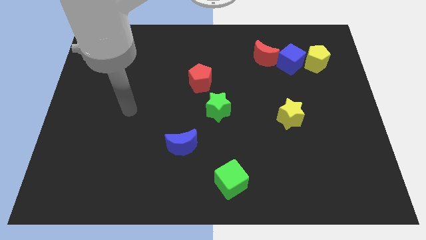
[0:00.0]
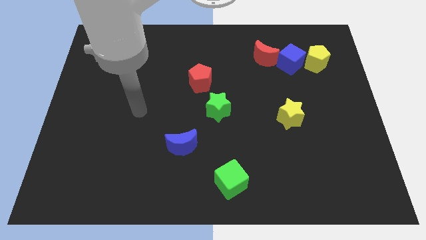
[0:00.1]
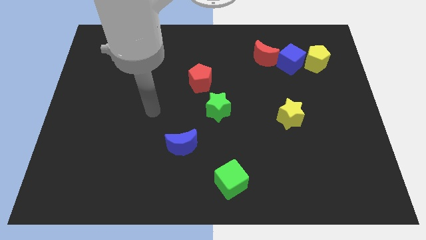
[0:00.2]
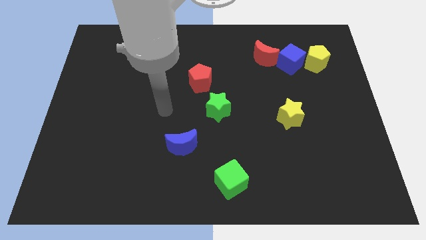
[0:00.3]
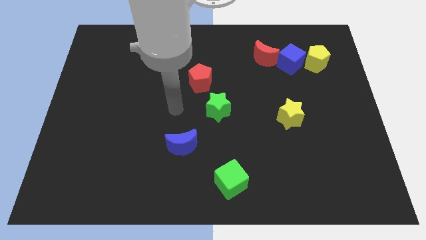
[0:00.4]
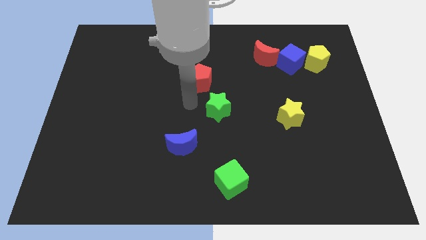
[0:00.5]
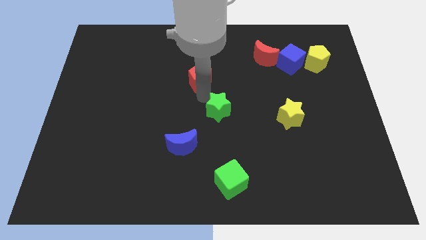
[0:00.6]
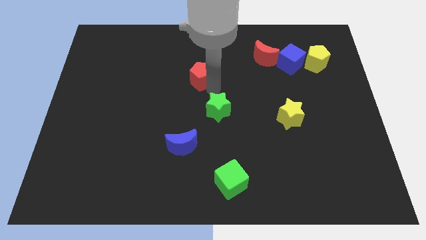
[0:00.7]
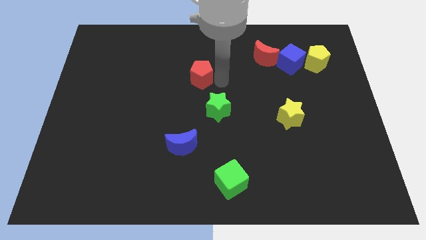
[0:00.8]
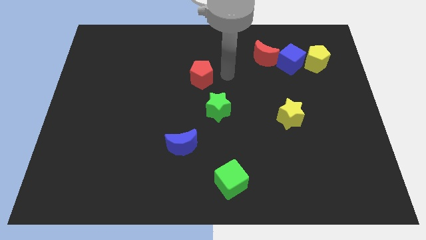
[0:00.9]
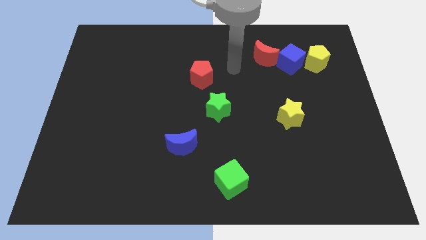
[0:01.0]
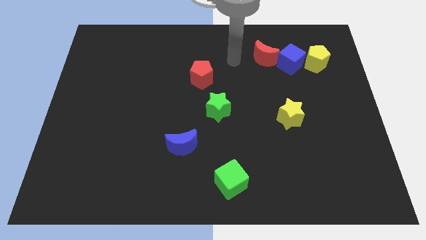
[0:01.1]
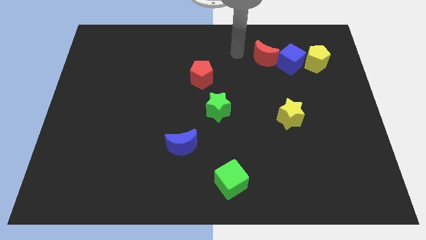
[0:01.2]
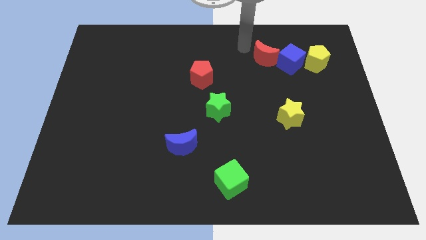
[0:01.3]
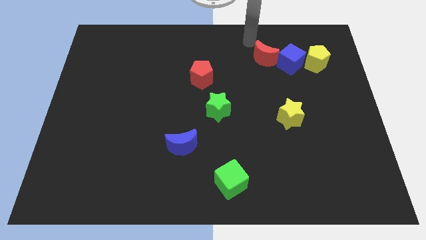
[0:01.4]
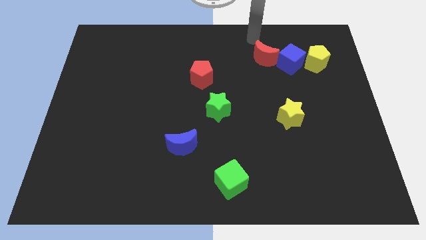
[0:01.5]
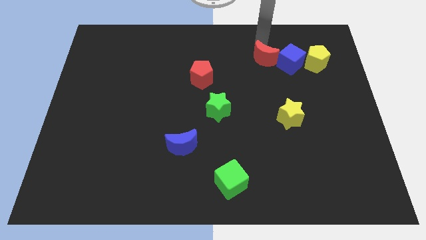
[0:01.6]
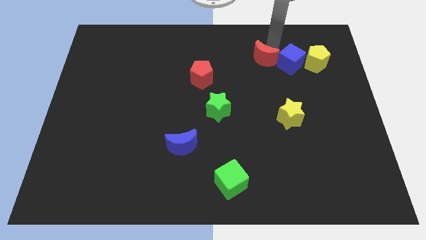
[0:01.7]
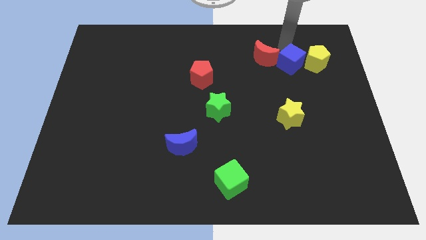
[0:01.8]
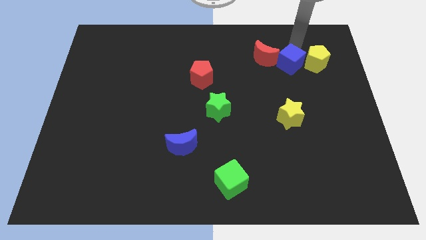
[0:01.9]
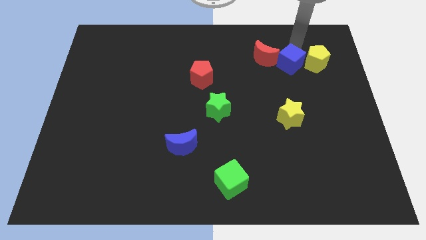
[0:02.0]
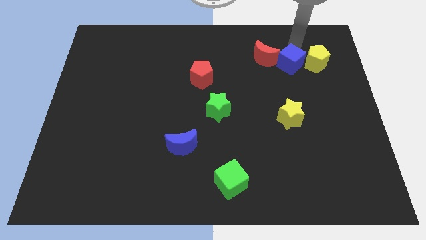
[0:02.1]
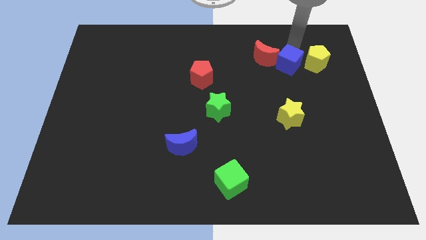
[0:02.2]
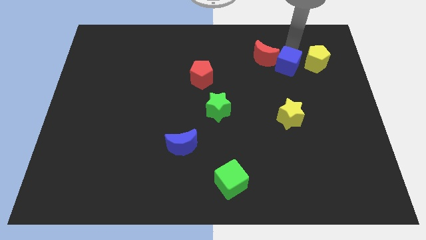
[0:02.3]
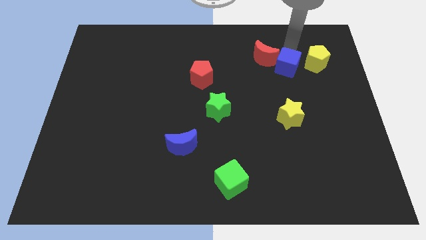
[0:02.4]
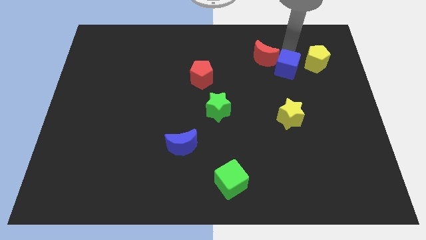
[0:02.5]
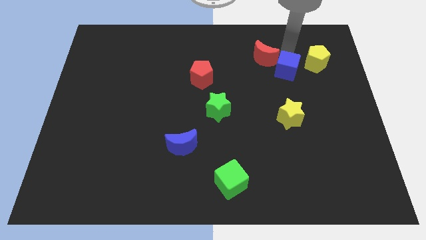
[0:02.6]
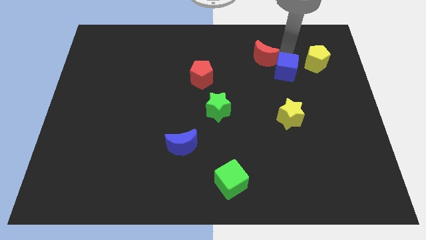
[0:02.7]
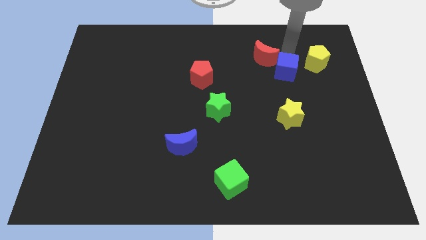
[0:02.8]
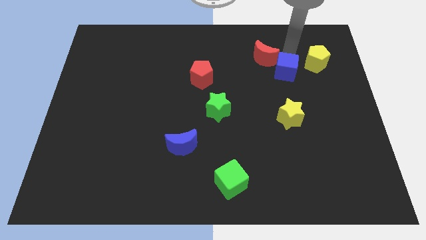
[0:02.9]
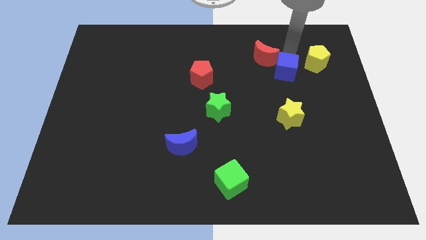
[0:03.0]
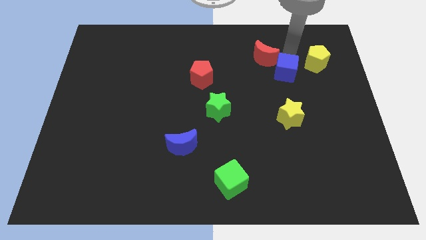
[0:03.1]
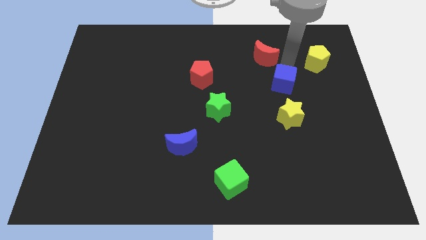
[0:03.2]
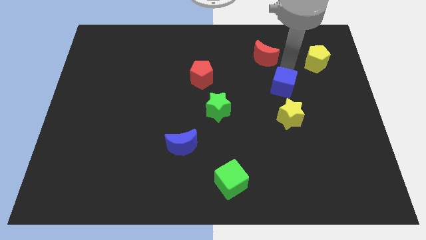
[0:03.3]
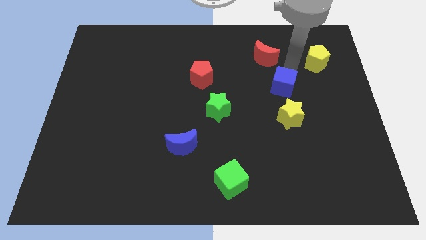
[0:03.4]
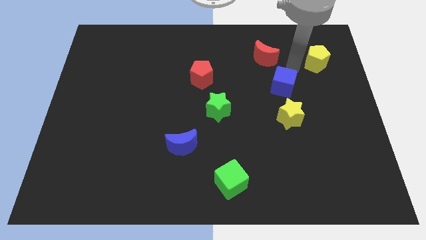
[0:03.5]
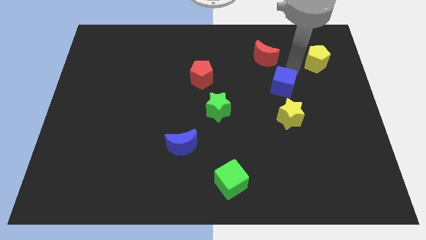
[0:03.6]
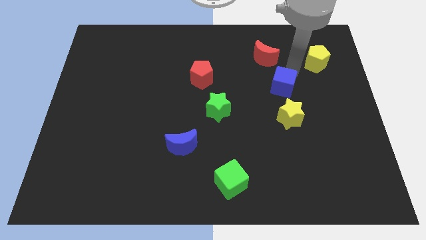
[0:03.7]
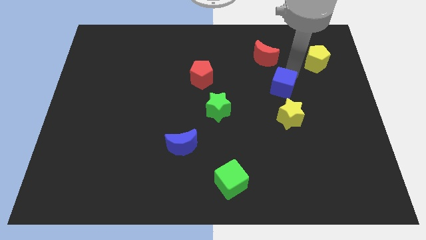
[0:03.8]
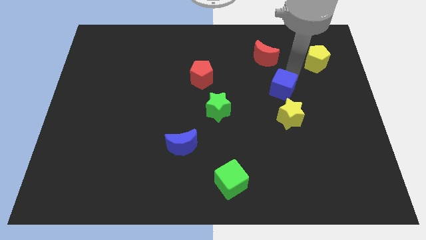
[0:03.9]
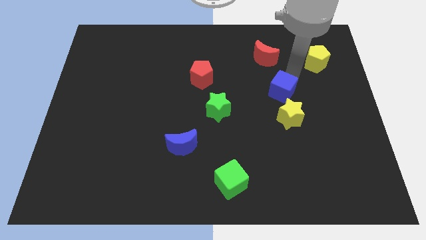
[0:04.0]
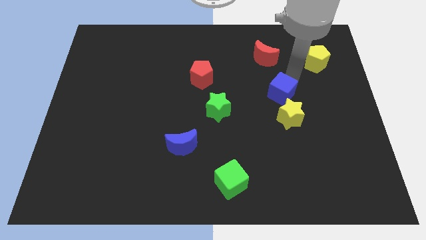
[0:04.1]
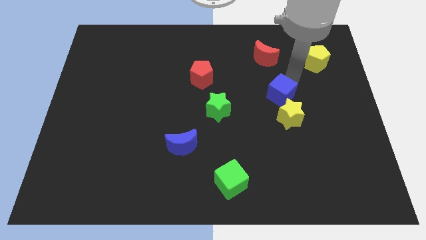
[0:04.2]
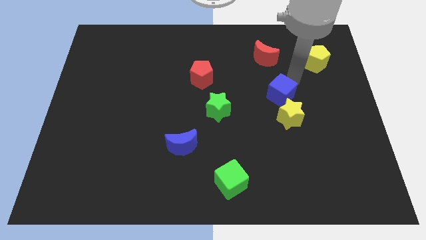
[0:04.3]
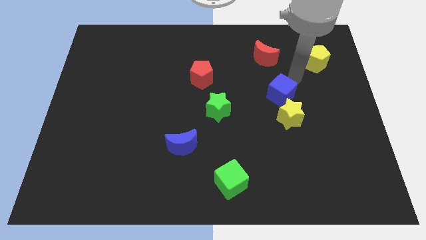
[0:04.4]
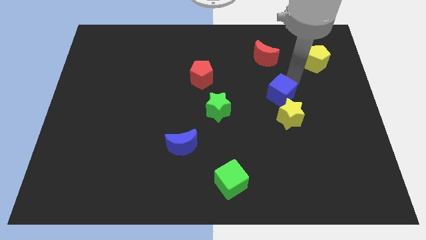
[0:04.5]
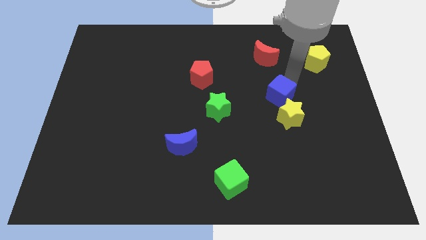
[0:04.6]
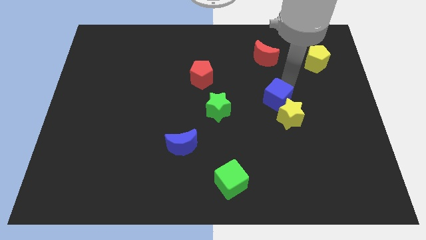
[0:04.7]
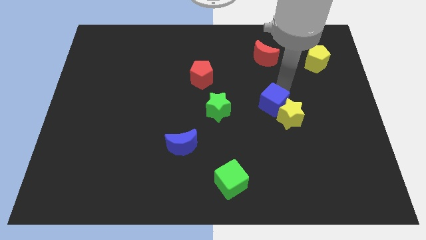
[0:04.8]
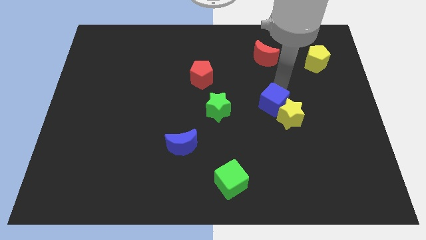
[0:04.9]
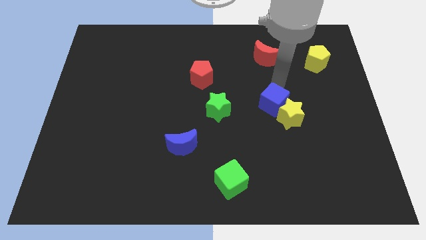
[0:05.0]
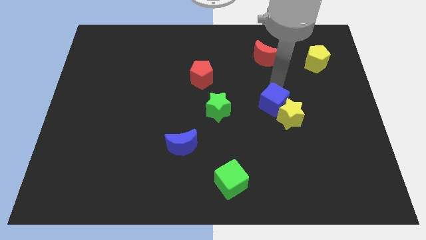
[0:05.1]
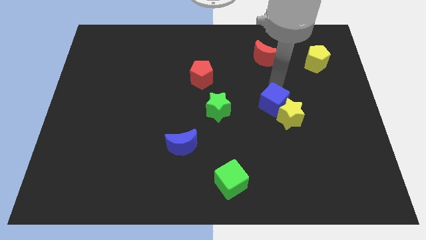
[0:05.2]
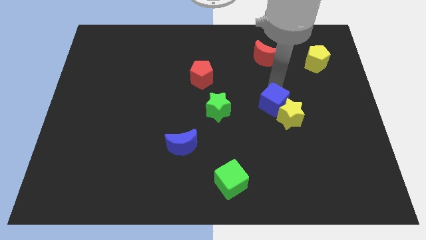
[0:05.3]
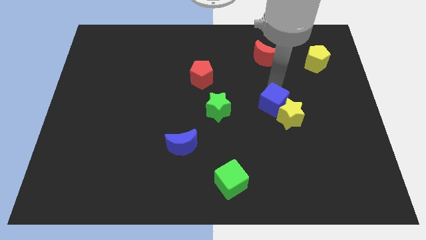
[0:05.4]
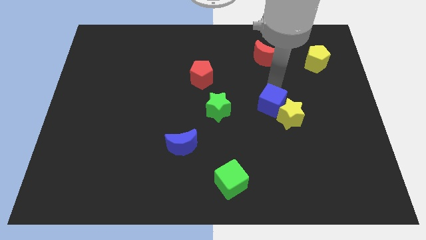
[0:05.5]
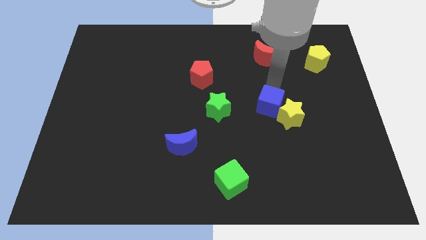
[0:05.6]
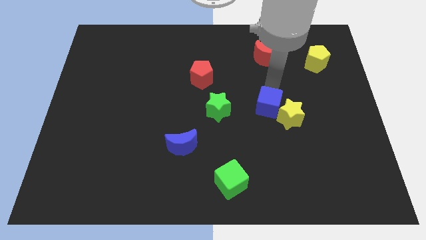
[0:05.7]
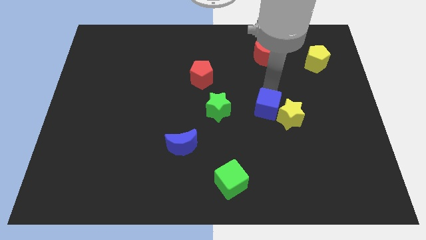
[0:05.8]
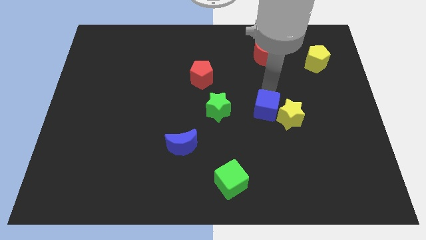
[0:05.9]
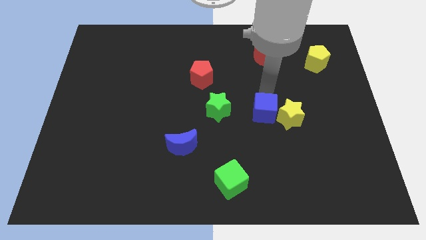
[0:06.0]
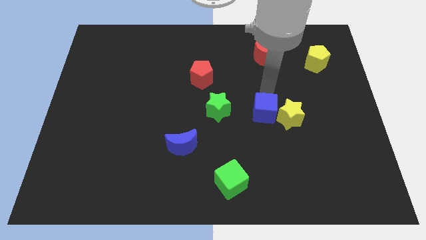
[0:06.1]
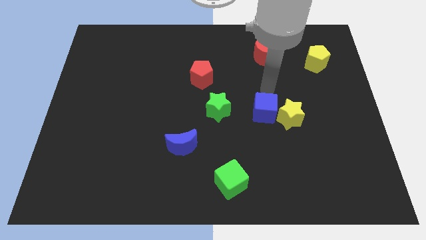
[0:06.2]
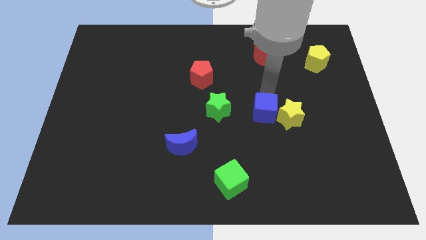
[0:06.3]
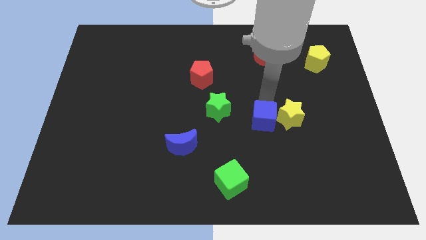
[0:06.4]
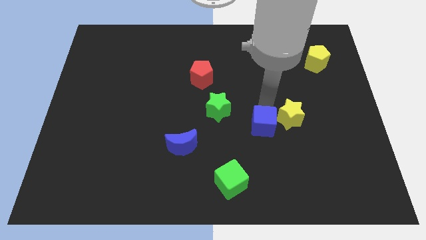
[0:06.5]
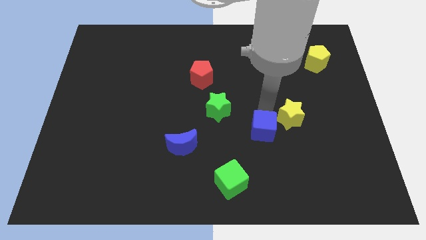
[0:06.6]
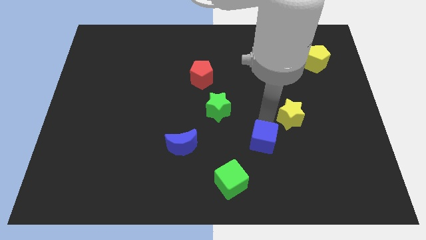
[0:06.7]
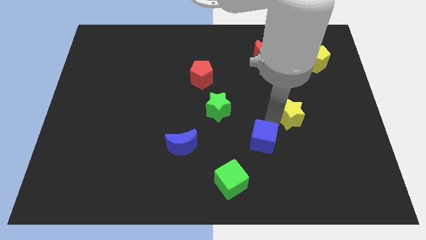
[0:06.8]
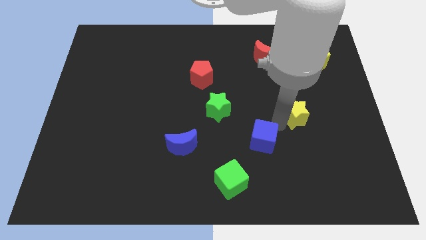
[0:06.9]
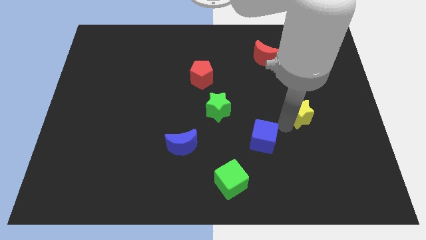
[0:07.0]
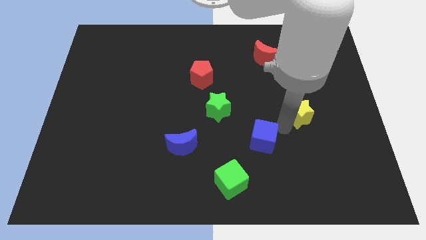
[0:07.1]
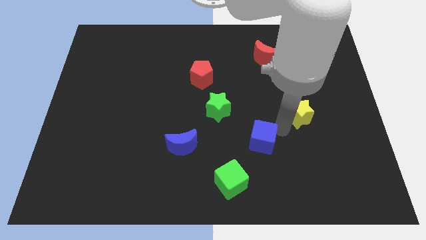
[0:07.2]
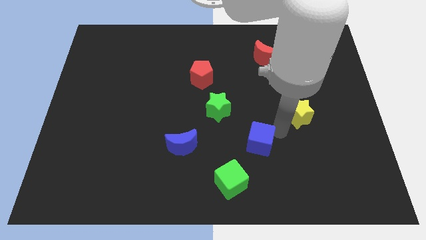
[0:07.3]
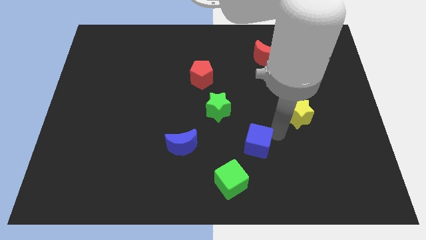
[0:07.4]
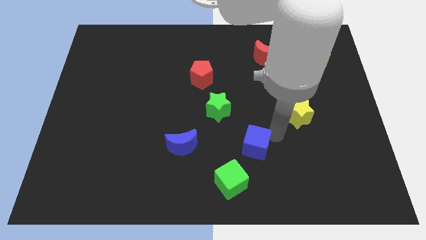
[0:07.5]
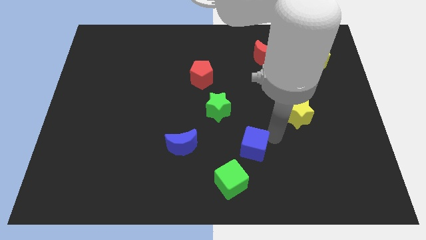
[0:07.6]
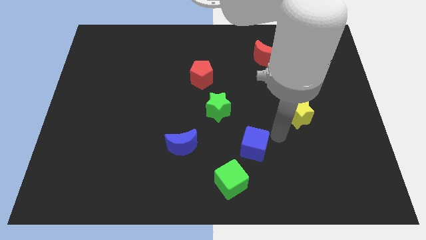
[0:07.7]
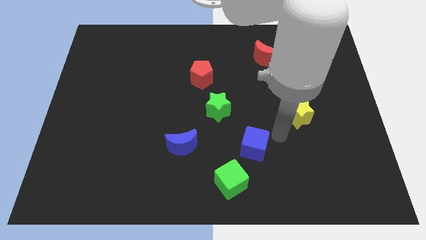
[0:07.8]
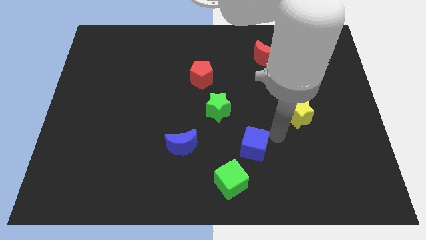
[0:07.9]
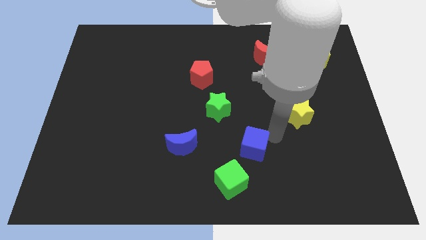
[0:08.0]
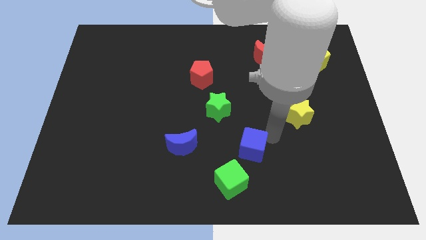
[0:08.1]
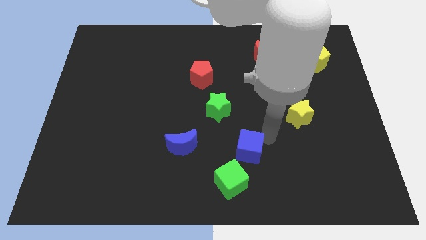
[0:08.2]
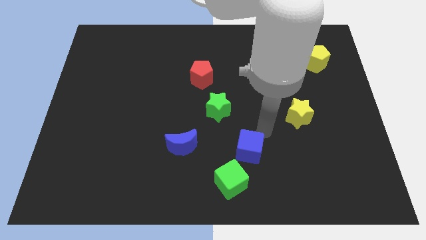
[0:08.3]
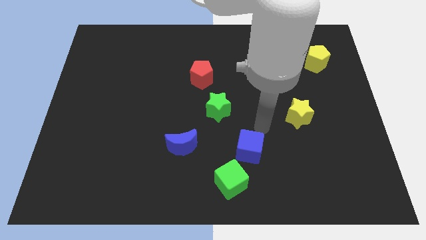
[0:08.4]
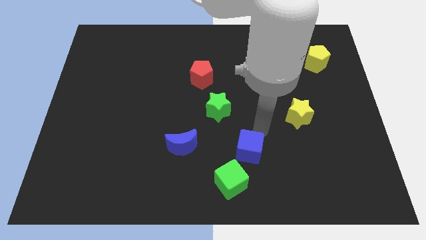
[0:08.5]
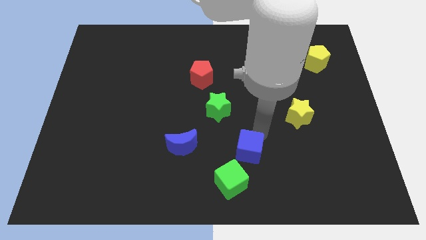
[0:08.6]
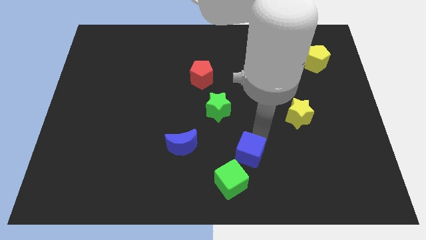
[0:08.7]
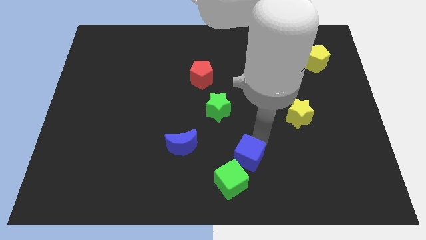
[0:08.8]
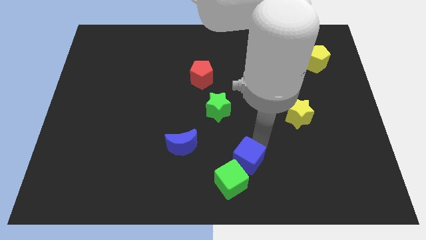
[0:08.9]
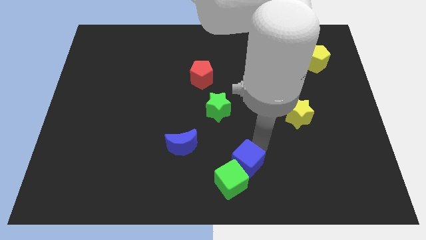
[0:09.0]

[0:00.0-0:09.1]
push the blue cube towards the green cube
